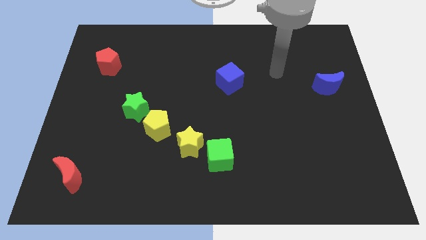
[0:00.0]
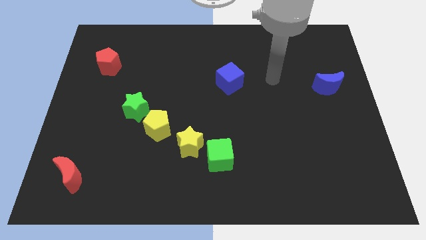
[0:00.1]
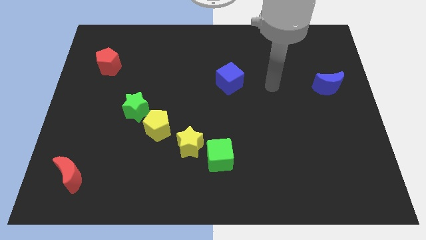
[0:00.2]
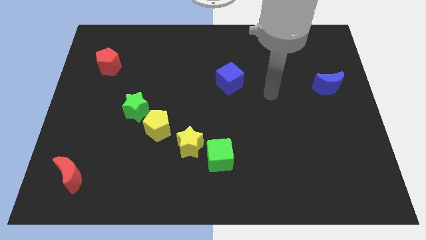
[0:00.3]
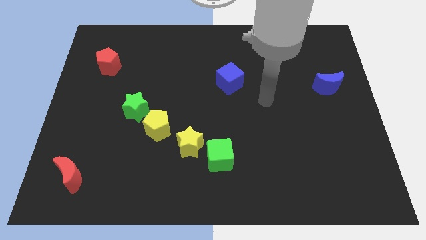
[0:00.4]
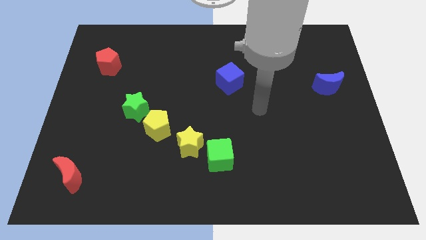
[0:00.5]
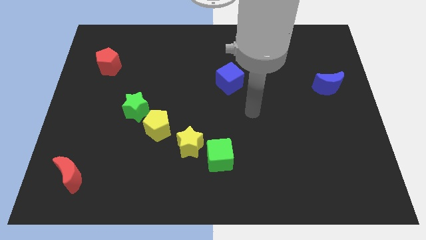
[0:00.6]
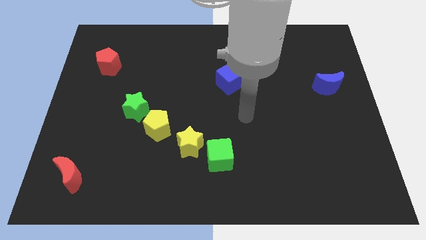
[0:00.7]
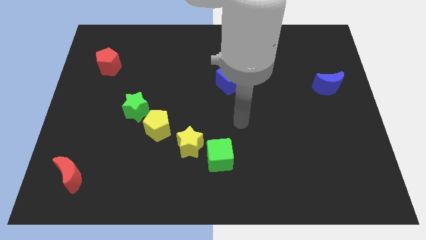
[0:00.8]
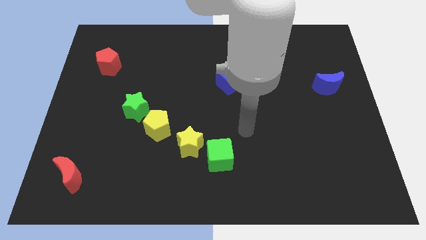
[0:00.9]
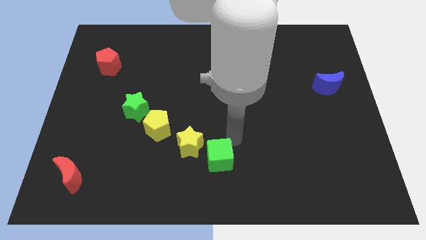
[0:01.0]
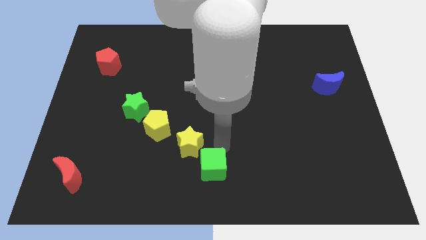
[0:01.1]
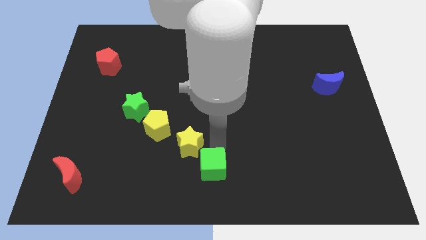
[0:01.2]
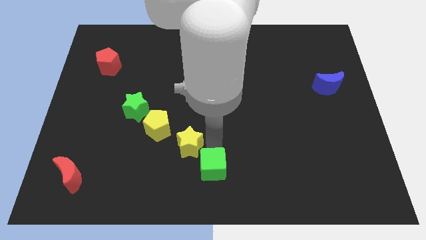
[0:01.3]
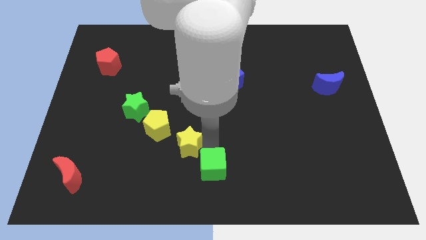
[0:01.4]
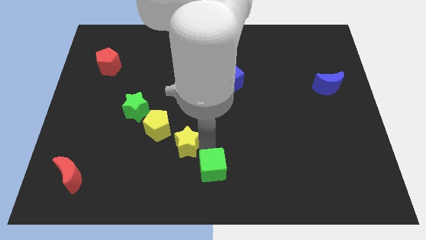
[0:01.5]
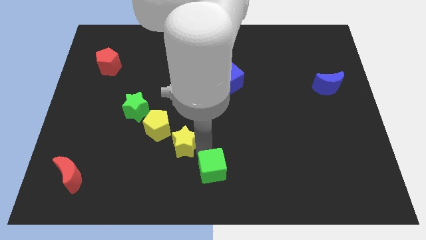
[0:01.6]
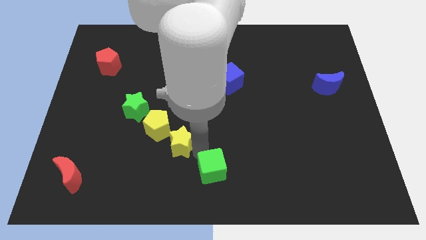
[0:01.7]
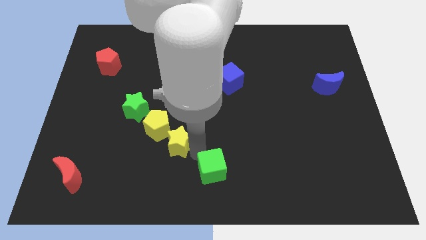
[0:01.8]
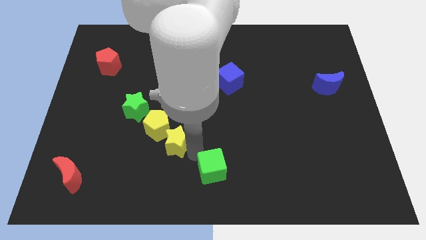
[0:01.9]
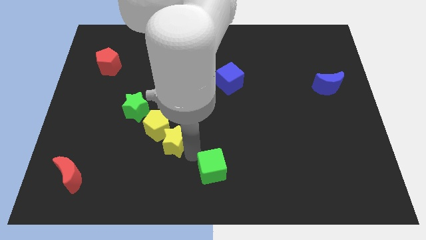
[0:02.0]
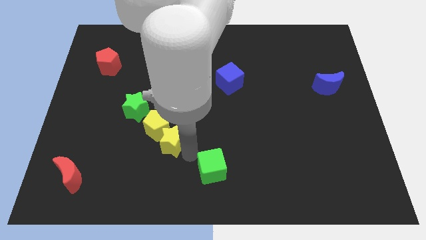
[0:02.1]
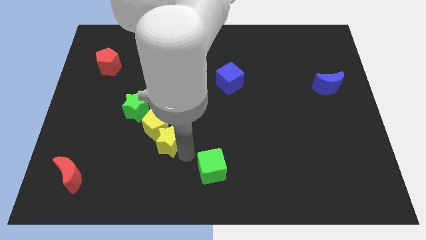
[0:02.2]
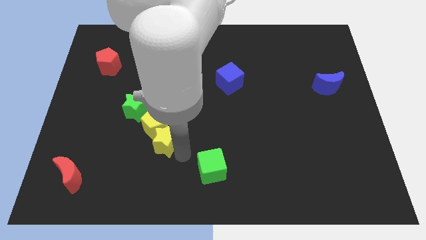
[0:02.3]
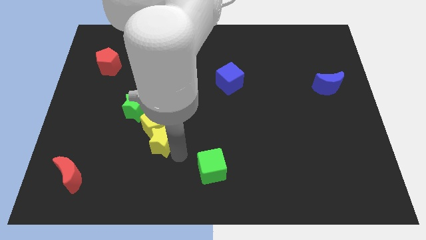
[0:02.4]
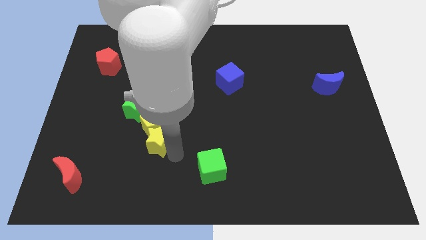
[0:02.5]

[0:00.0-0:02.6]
slightly move the yellow star left

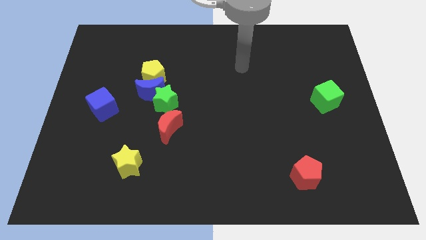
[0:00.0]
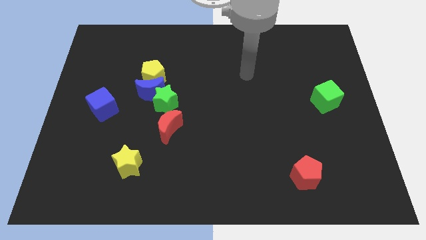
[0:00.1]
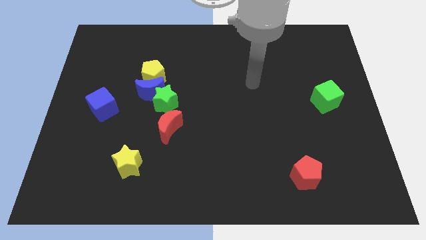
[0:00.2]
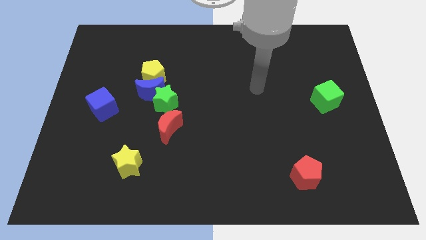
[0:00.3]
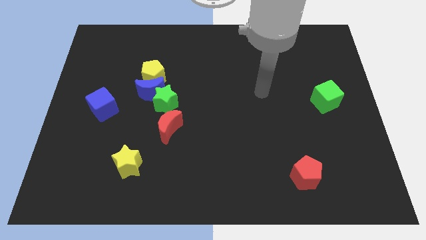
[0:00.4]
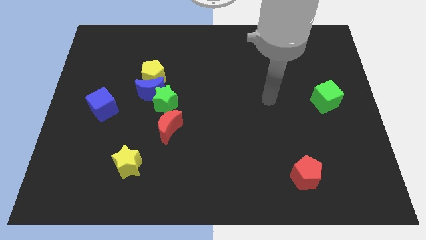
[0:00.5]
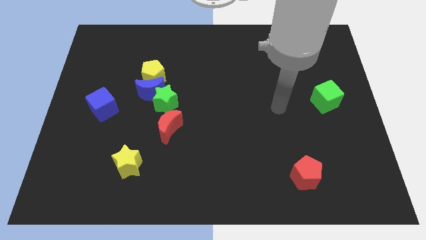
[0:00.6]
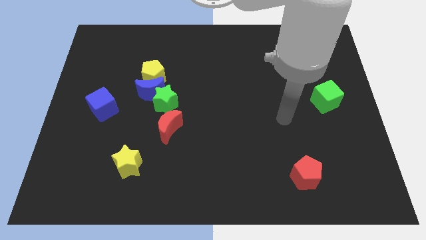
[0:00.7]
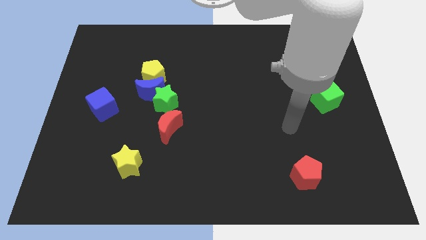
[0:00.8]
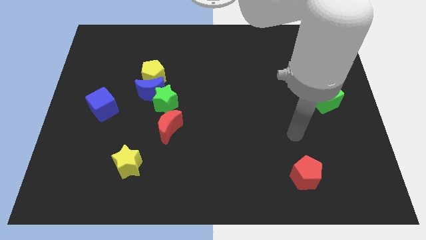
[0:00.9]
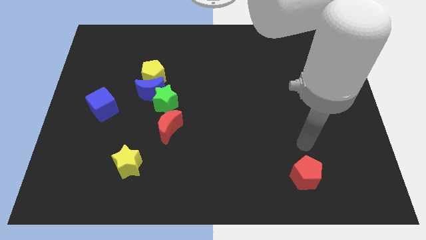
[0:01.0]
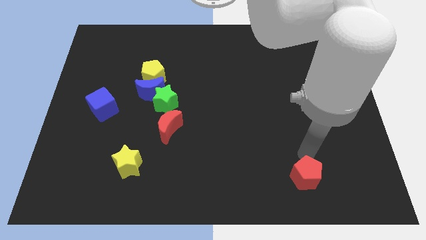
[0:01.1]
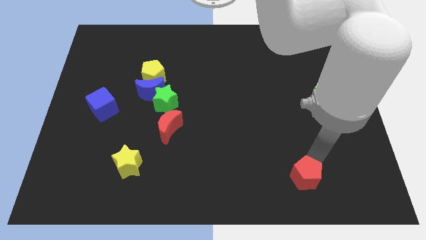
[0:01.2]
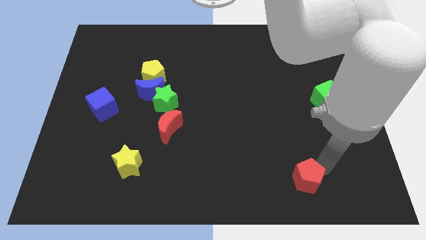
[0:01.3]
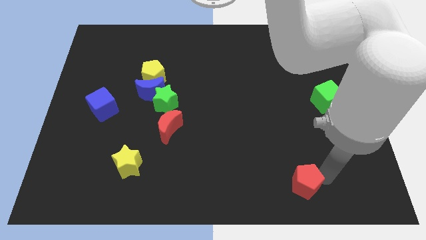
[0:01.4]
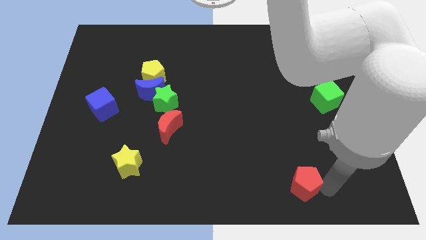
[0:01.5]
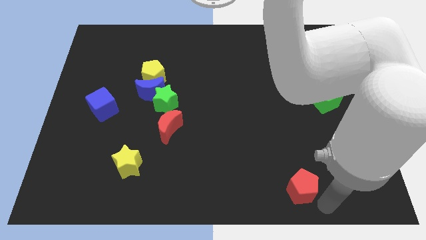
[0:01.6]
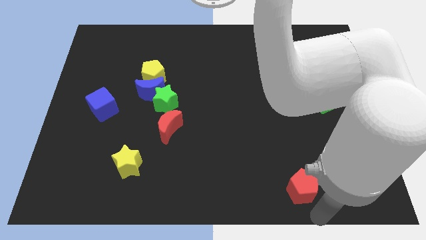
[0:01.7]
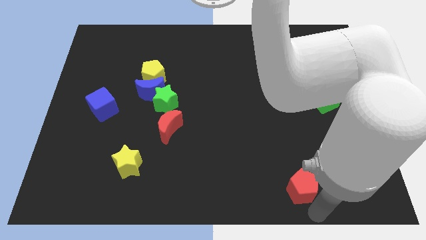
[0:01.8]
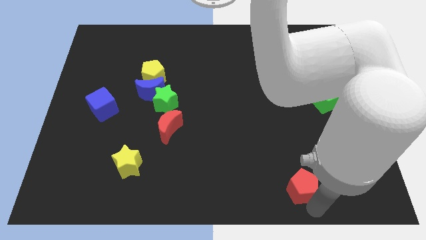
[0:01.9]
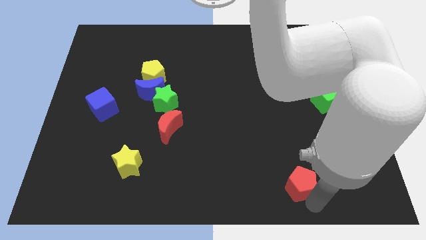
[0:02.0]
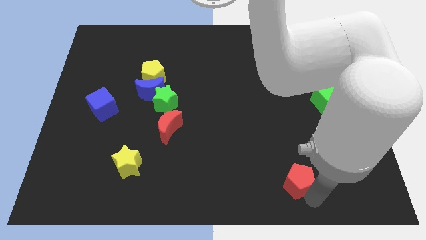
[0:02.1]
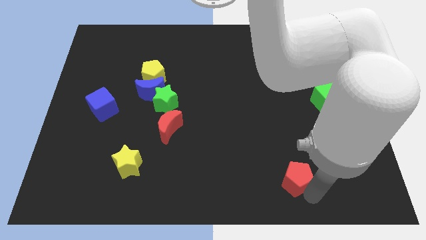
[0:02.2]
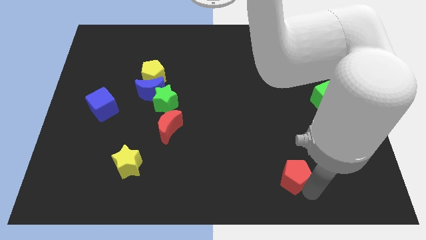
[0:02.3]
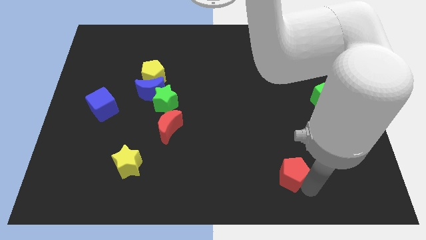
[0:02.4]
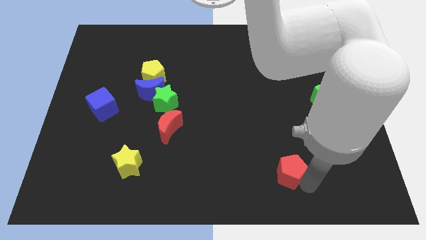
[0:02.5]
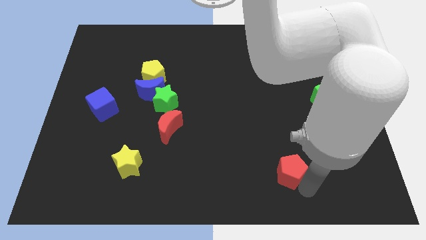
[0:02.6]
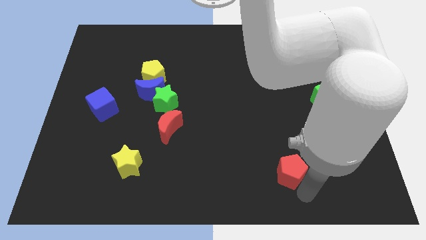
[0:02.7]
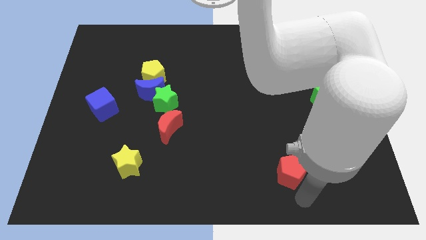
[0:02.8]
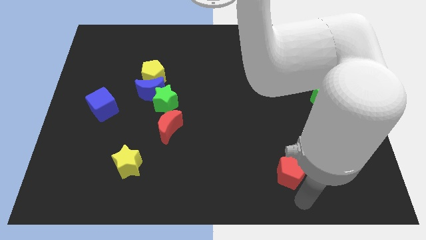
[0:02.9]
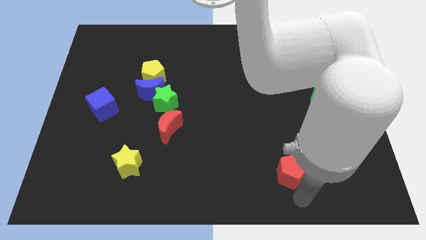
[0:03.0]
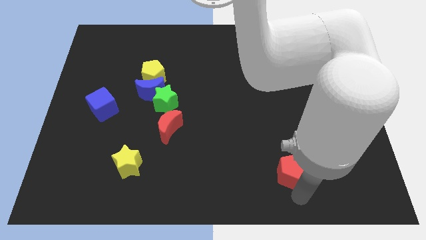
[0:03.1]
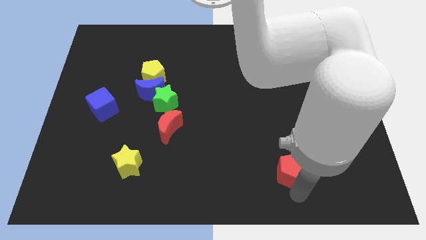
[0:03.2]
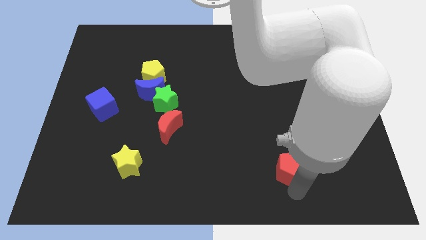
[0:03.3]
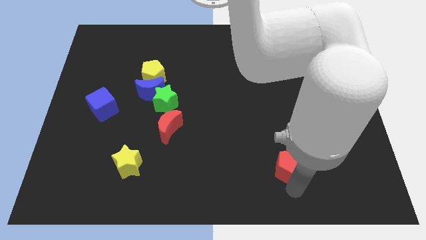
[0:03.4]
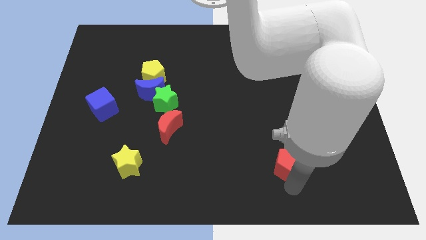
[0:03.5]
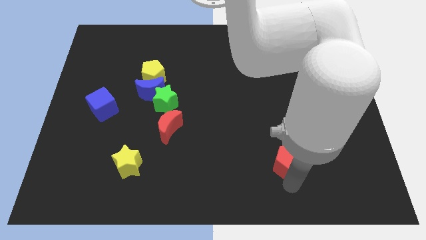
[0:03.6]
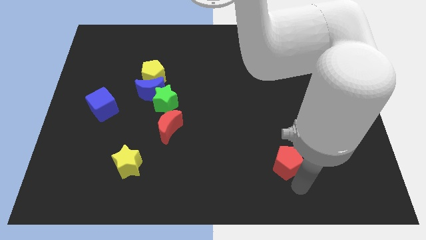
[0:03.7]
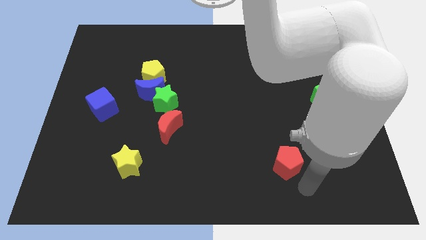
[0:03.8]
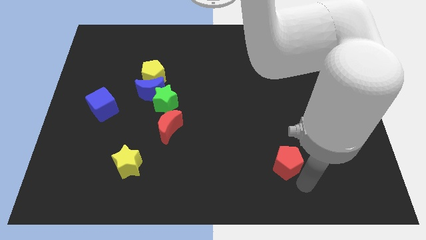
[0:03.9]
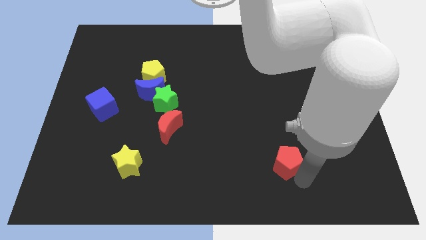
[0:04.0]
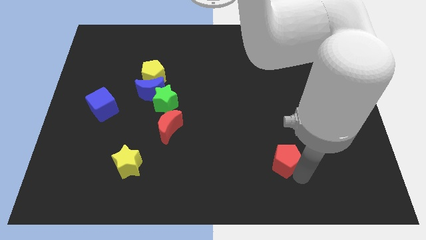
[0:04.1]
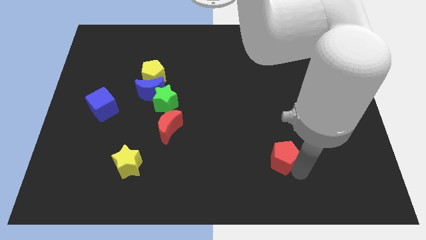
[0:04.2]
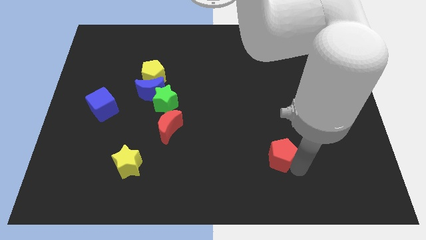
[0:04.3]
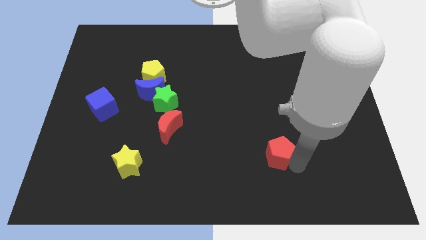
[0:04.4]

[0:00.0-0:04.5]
slide the red pentagon somewhat upwards and left diagonally

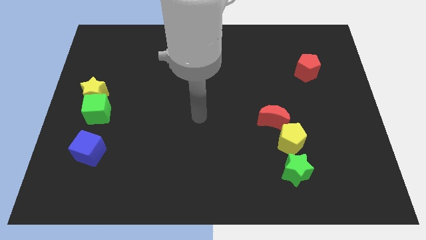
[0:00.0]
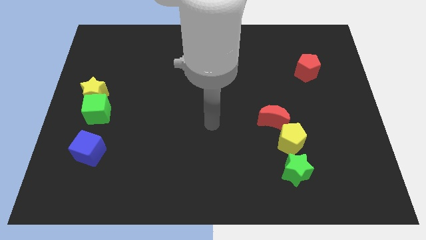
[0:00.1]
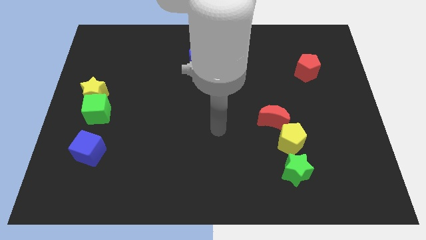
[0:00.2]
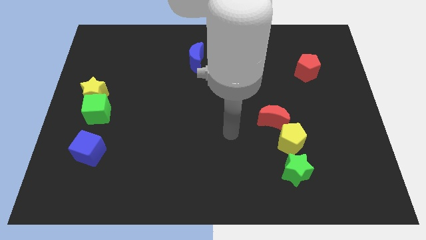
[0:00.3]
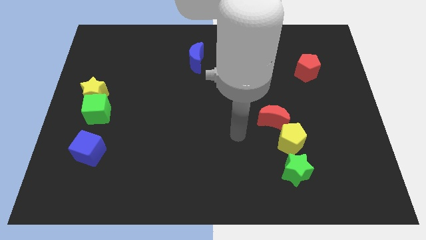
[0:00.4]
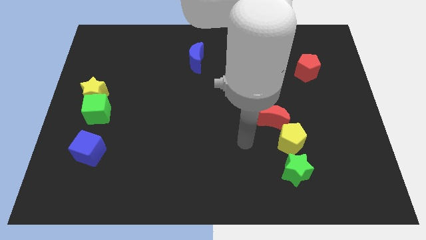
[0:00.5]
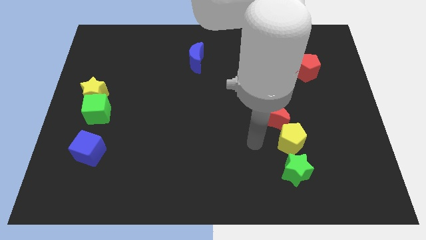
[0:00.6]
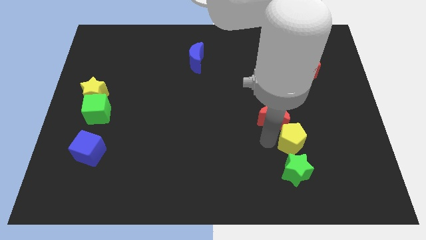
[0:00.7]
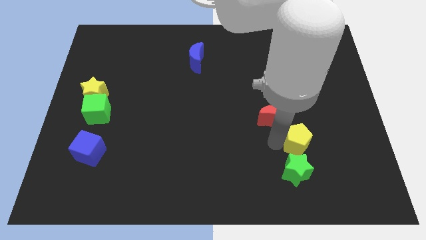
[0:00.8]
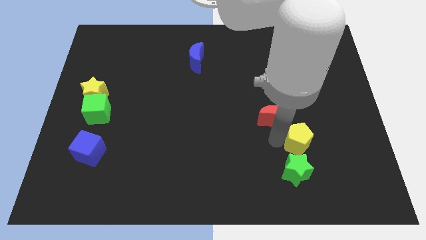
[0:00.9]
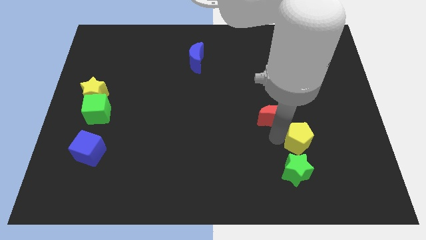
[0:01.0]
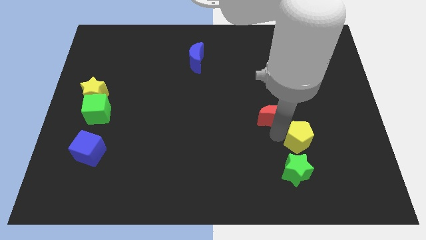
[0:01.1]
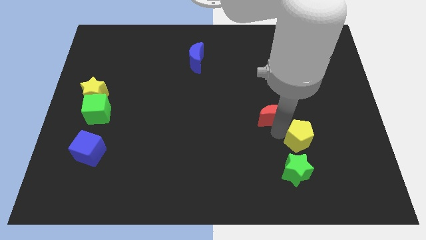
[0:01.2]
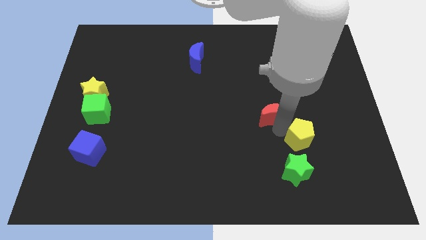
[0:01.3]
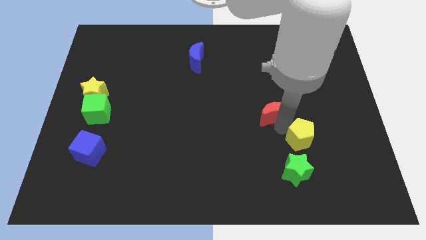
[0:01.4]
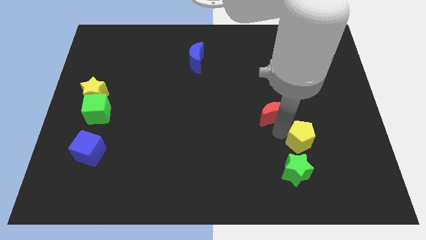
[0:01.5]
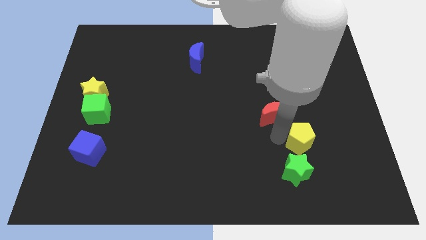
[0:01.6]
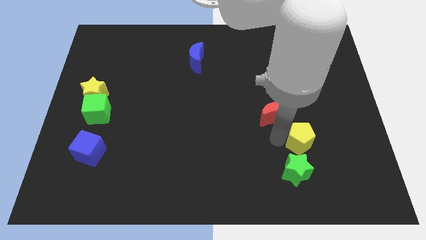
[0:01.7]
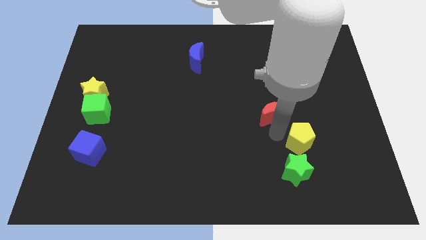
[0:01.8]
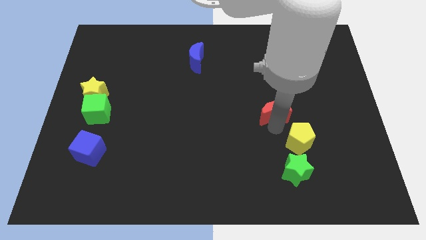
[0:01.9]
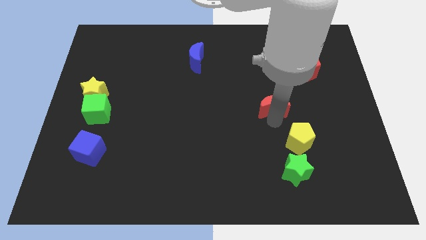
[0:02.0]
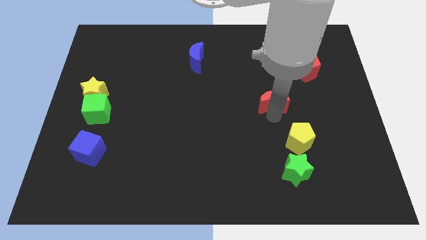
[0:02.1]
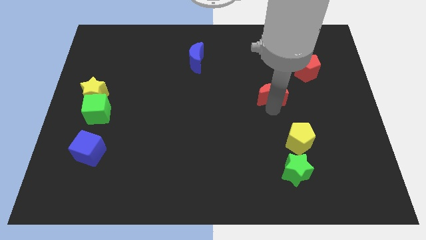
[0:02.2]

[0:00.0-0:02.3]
slightly move the red moon upwards
